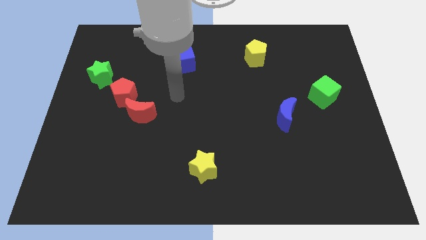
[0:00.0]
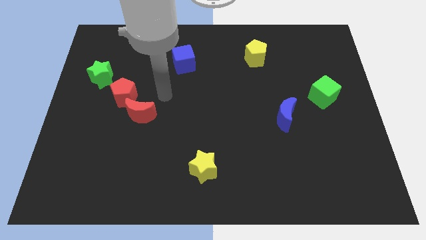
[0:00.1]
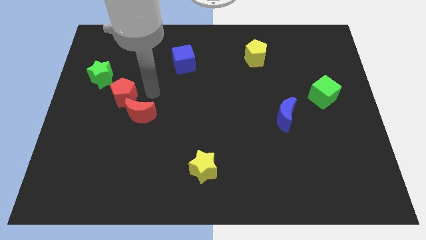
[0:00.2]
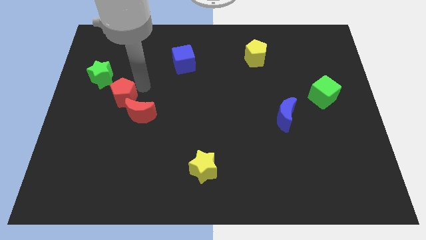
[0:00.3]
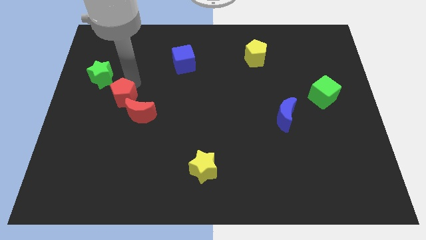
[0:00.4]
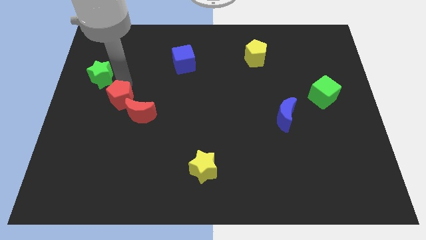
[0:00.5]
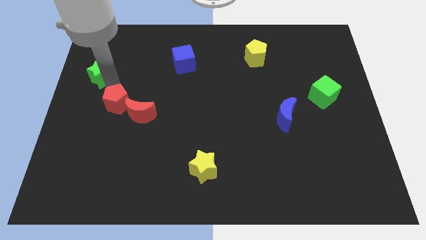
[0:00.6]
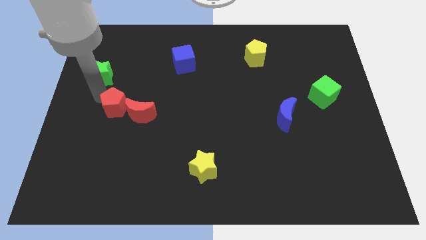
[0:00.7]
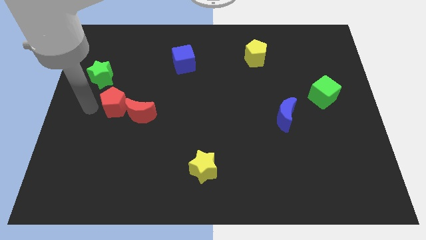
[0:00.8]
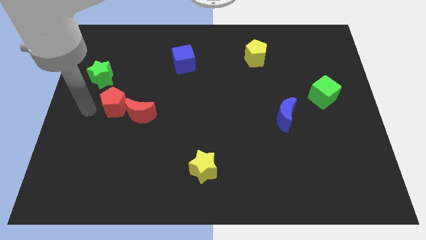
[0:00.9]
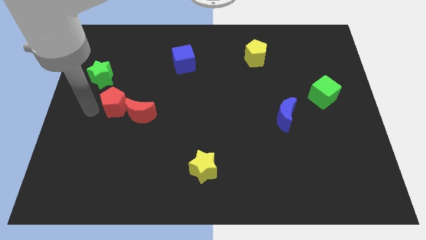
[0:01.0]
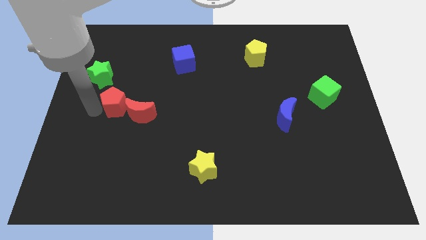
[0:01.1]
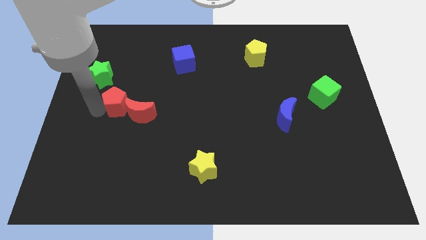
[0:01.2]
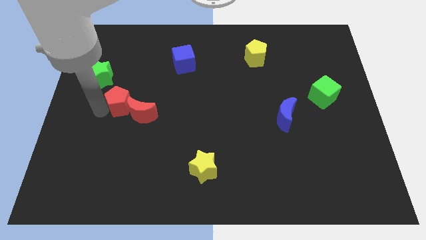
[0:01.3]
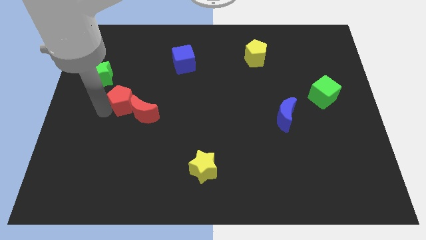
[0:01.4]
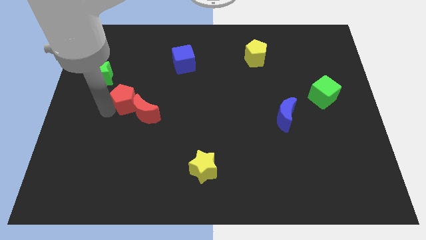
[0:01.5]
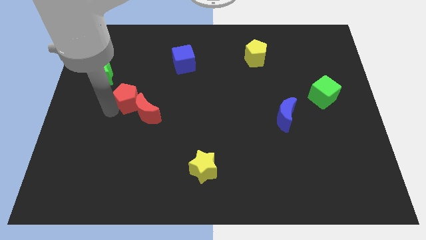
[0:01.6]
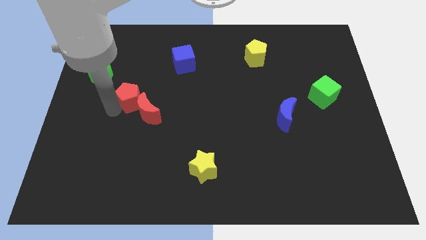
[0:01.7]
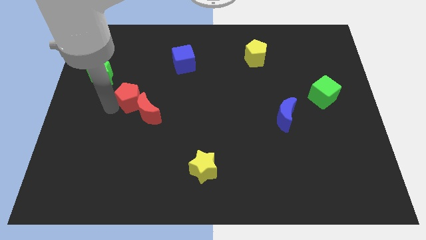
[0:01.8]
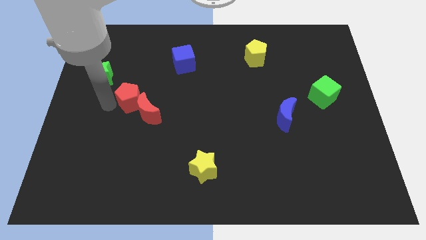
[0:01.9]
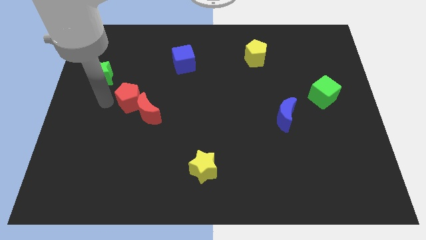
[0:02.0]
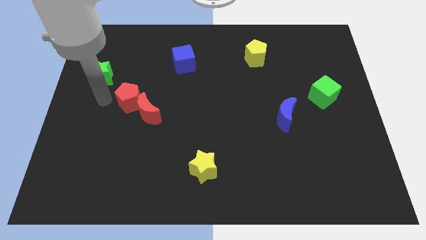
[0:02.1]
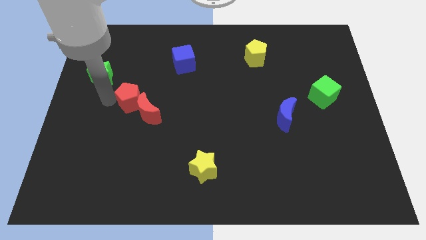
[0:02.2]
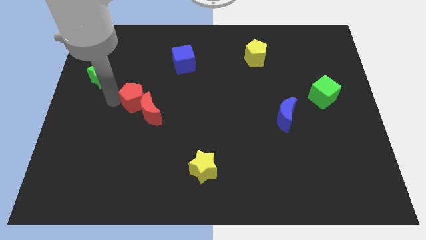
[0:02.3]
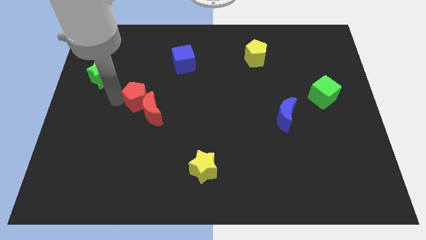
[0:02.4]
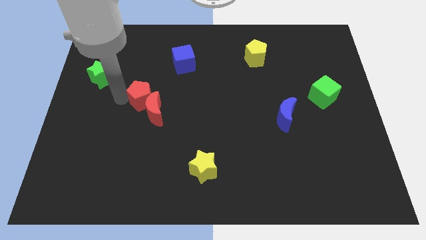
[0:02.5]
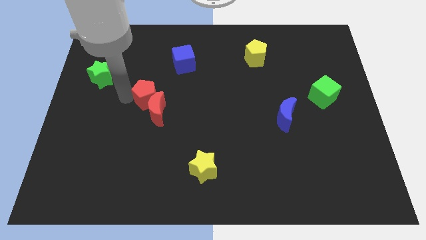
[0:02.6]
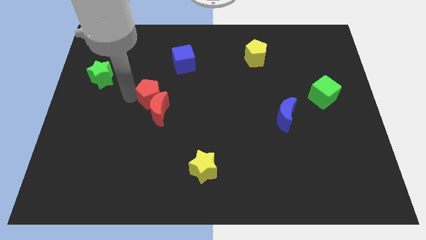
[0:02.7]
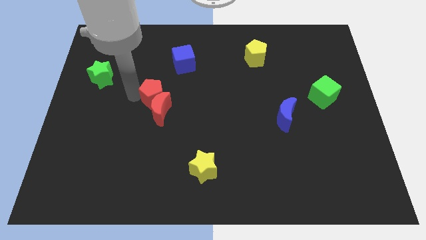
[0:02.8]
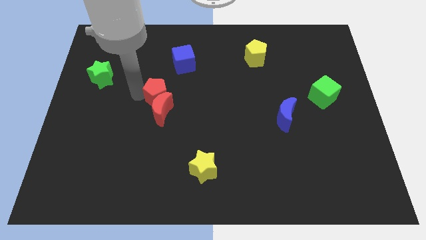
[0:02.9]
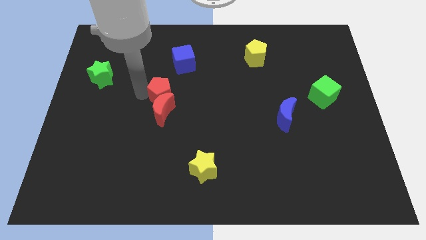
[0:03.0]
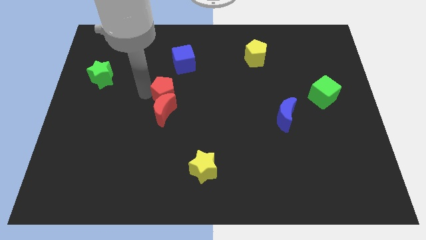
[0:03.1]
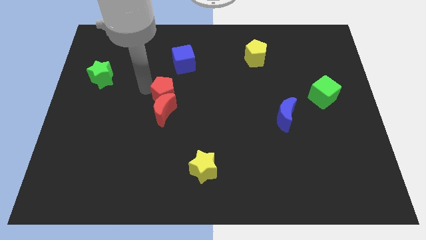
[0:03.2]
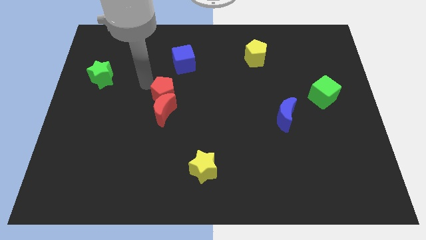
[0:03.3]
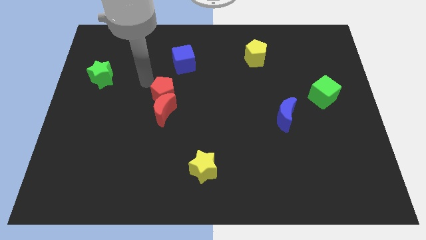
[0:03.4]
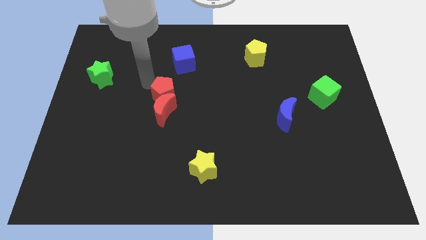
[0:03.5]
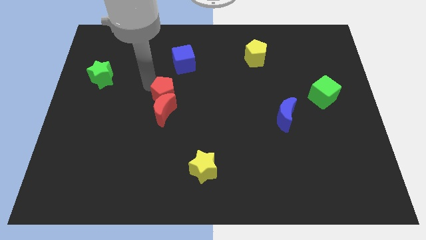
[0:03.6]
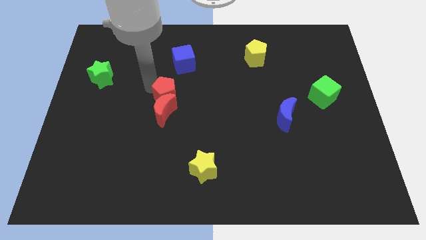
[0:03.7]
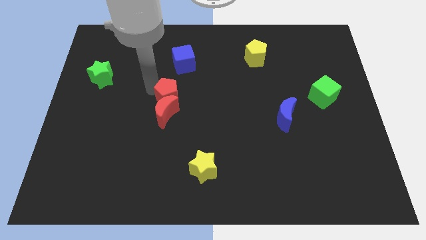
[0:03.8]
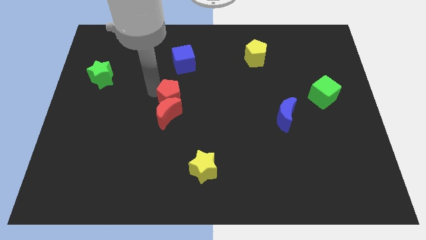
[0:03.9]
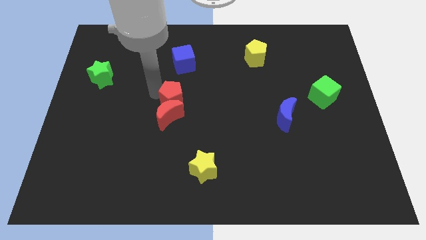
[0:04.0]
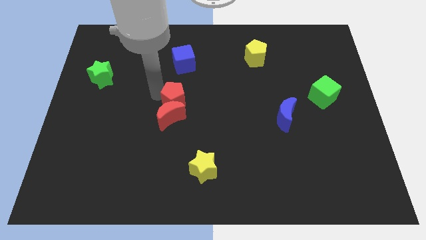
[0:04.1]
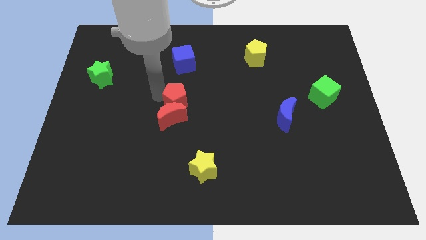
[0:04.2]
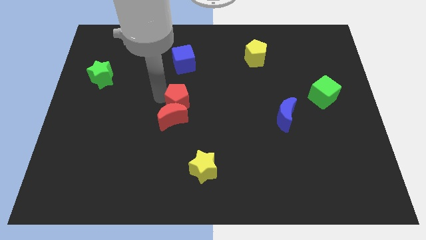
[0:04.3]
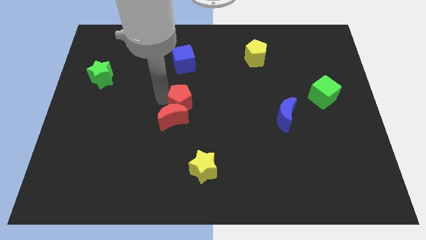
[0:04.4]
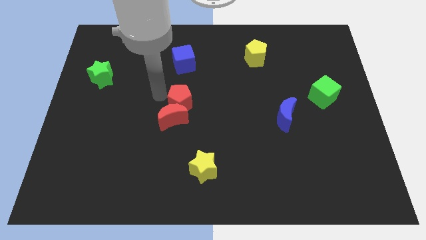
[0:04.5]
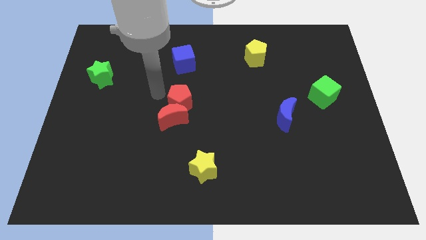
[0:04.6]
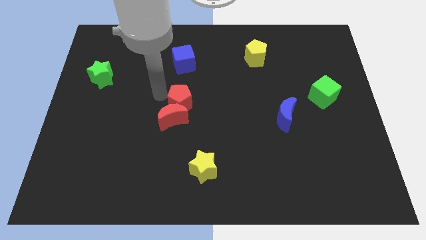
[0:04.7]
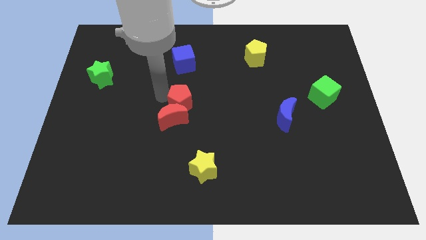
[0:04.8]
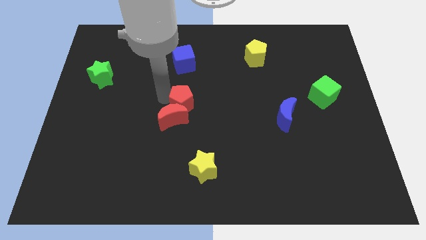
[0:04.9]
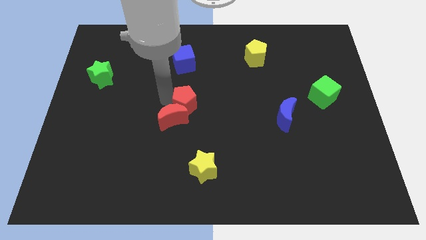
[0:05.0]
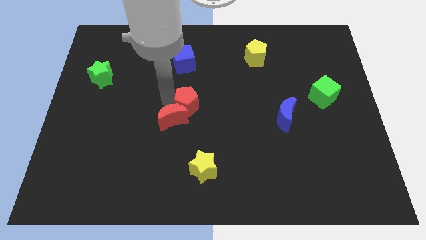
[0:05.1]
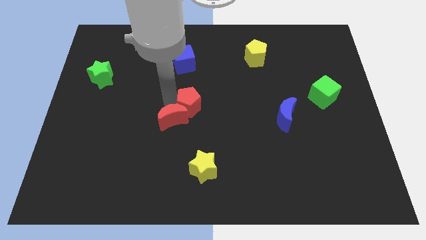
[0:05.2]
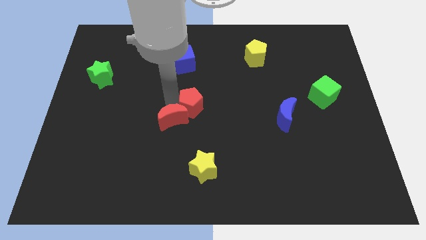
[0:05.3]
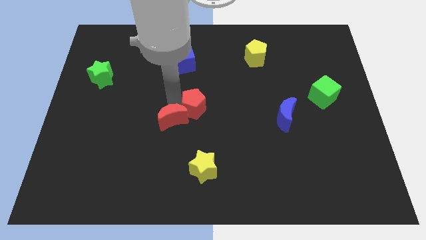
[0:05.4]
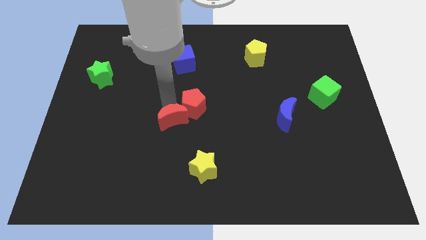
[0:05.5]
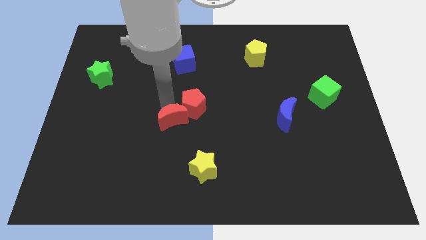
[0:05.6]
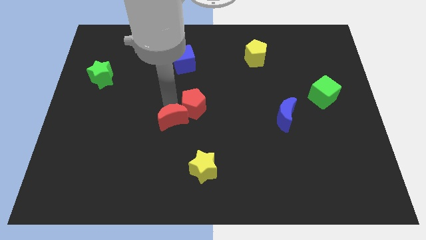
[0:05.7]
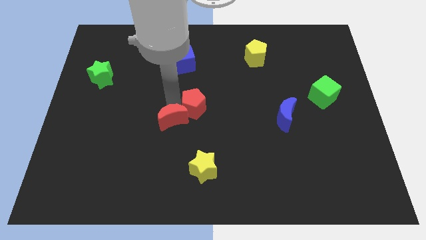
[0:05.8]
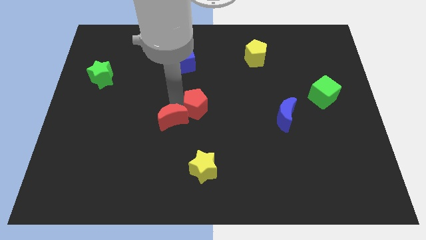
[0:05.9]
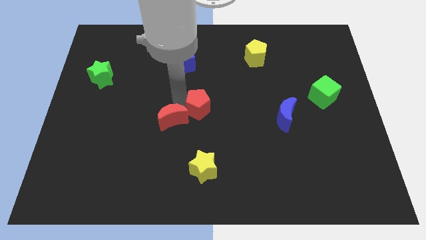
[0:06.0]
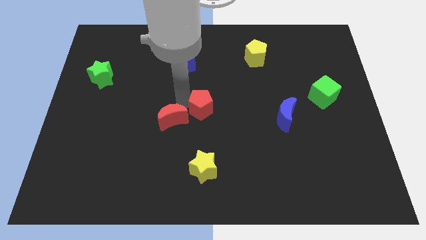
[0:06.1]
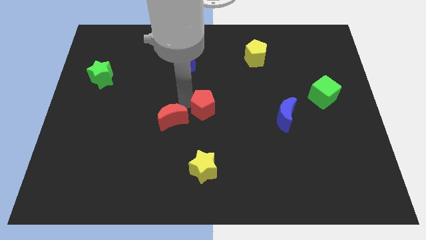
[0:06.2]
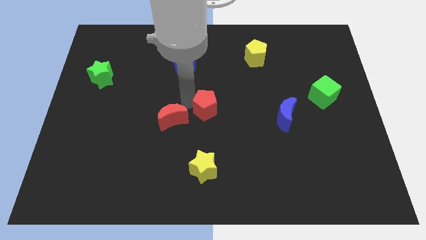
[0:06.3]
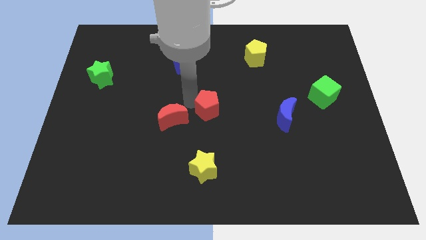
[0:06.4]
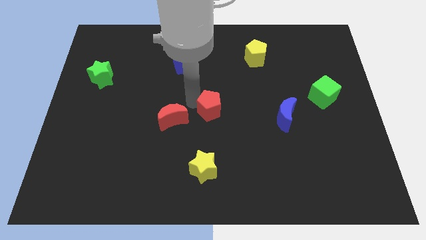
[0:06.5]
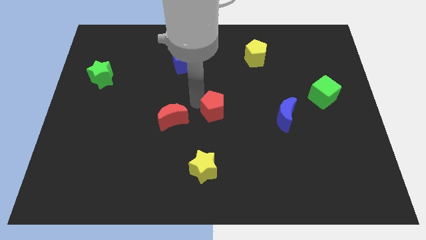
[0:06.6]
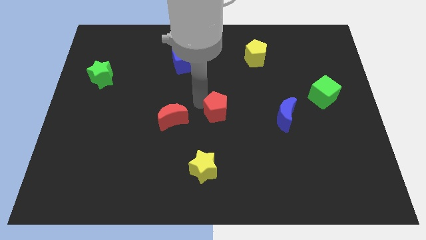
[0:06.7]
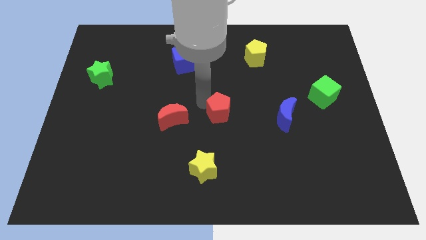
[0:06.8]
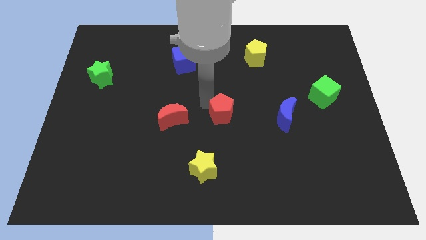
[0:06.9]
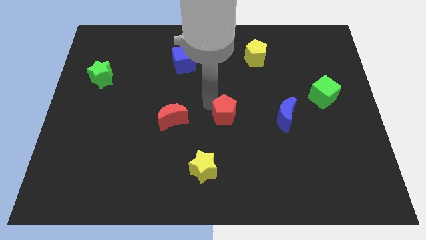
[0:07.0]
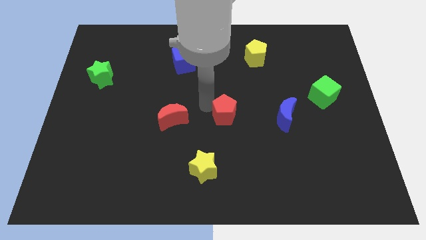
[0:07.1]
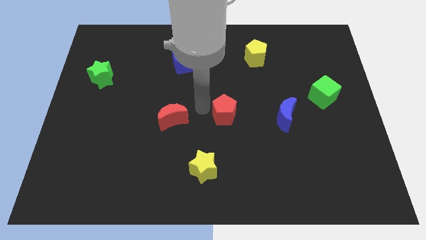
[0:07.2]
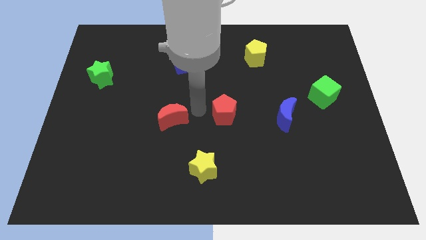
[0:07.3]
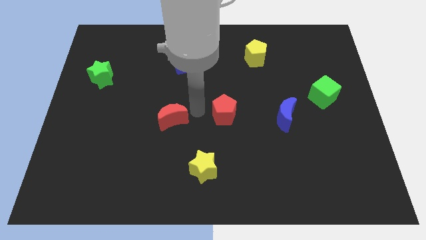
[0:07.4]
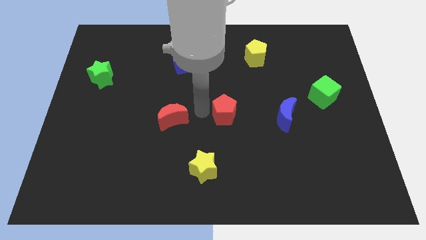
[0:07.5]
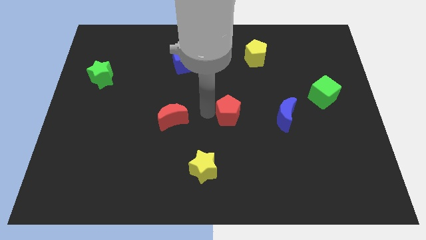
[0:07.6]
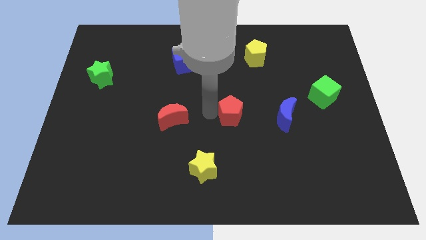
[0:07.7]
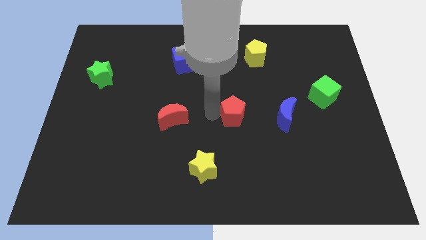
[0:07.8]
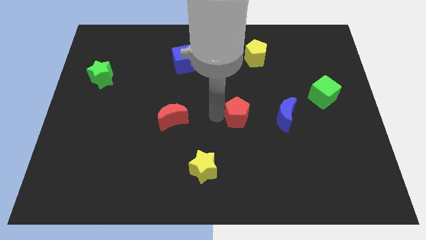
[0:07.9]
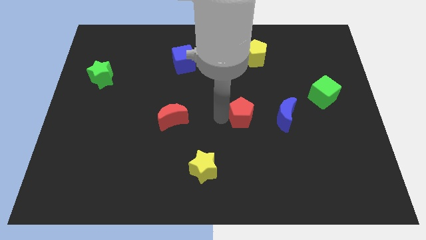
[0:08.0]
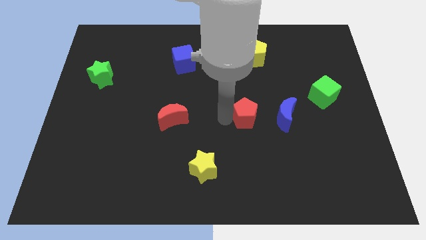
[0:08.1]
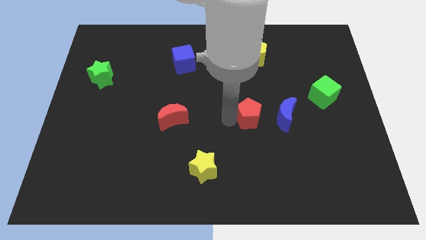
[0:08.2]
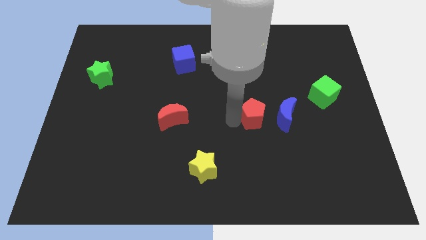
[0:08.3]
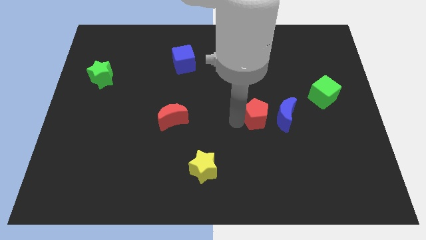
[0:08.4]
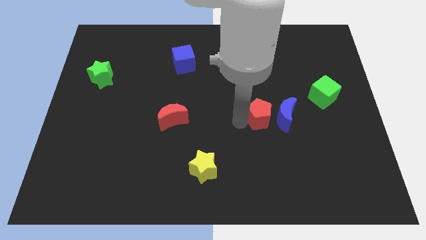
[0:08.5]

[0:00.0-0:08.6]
put the red pentagon next to the blue moon
